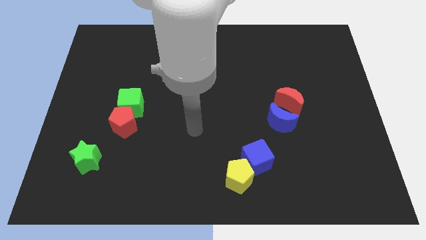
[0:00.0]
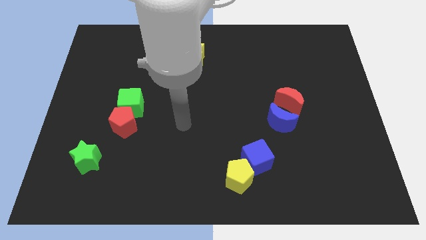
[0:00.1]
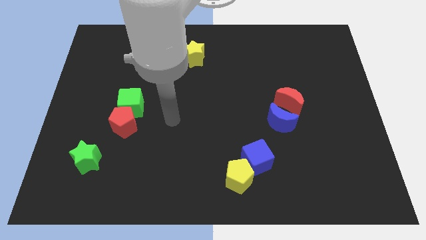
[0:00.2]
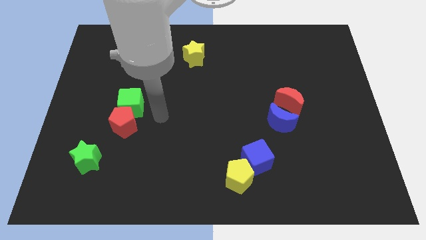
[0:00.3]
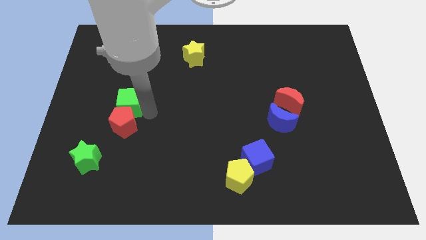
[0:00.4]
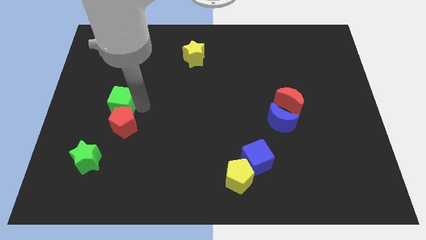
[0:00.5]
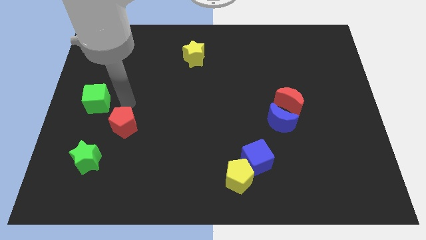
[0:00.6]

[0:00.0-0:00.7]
move the red pentagon away from the green cube

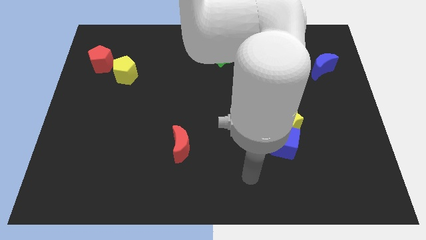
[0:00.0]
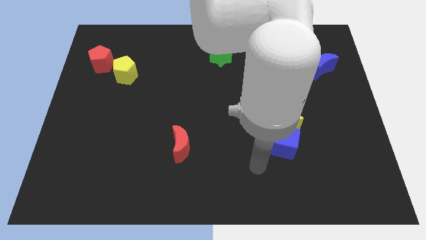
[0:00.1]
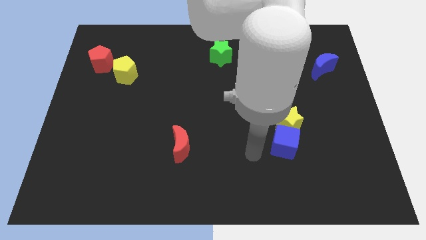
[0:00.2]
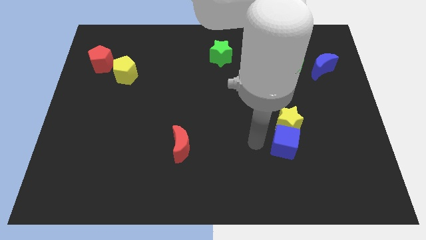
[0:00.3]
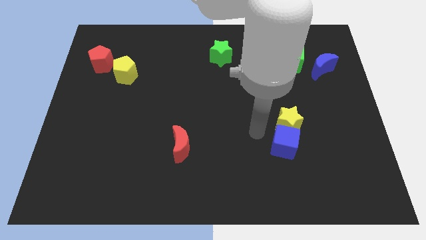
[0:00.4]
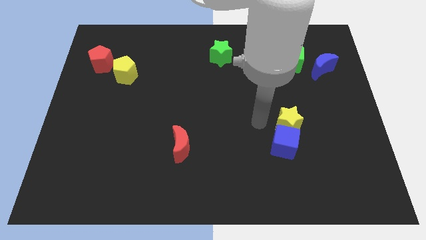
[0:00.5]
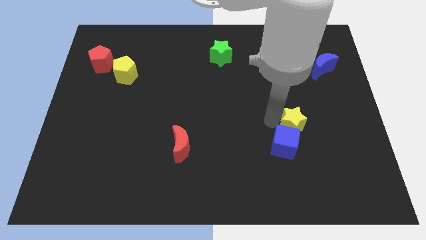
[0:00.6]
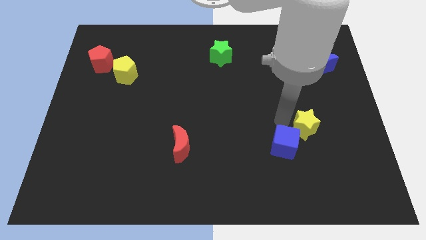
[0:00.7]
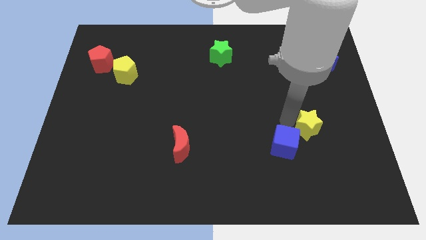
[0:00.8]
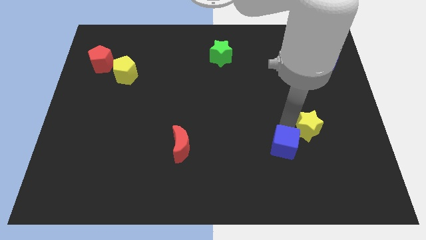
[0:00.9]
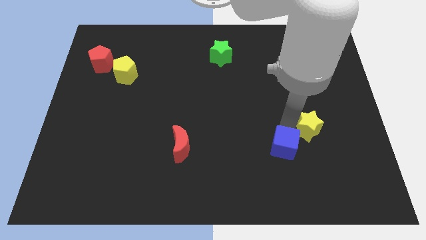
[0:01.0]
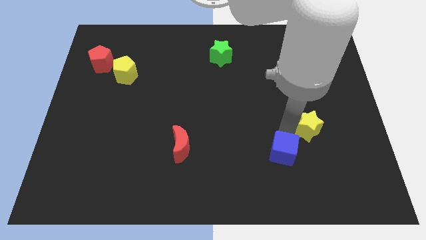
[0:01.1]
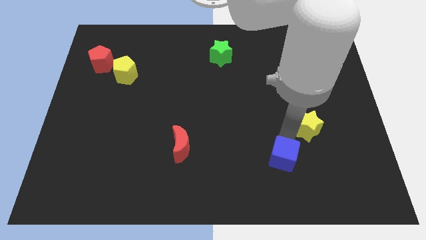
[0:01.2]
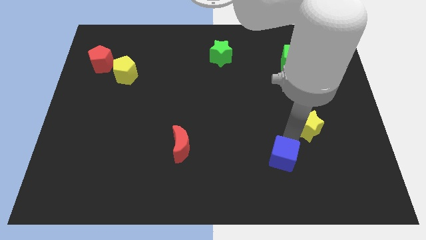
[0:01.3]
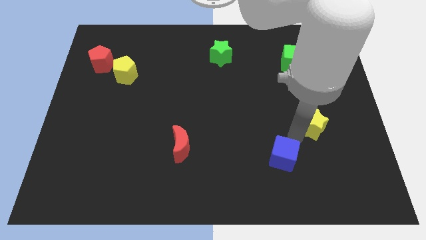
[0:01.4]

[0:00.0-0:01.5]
pull the blue cube apart from the yellow star

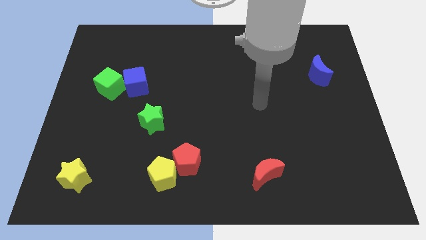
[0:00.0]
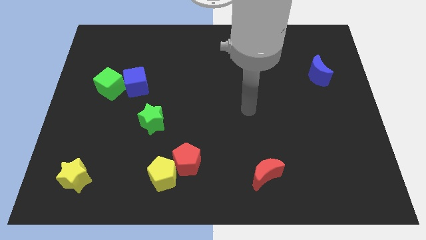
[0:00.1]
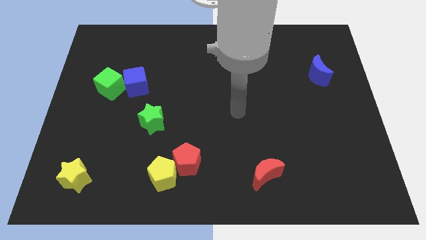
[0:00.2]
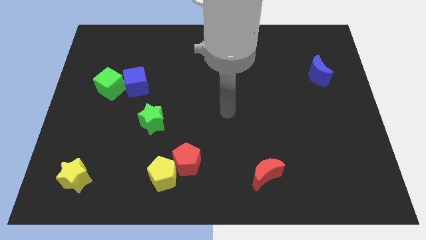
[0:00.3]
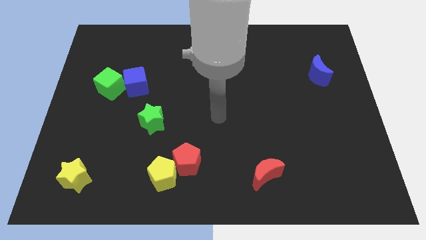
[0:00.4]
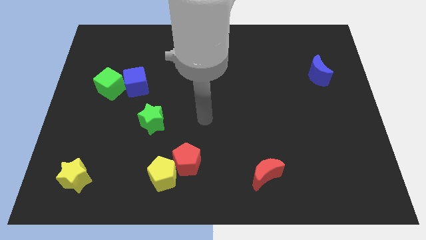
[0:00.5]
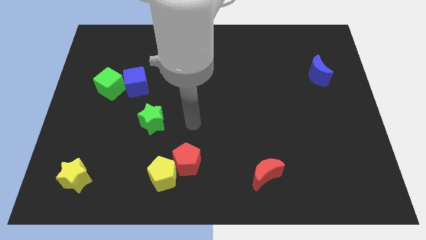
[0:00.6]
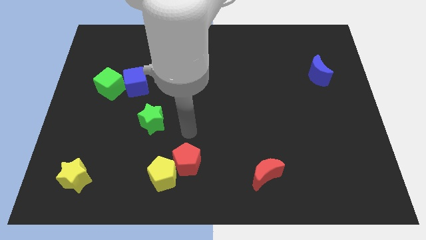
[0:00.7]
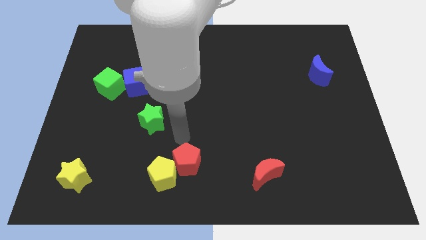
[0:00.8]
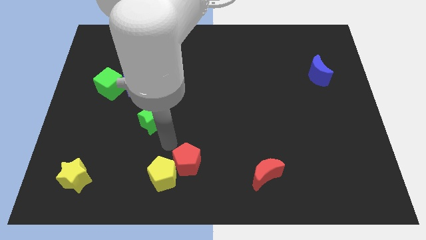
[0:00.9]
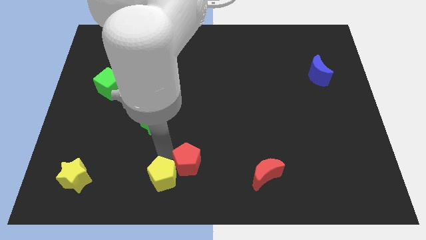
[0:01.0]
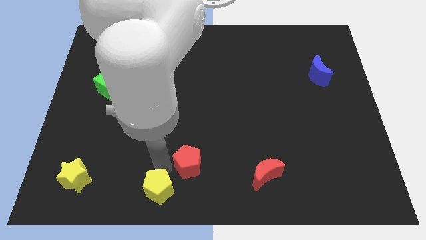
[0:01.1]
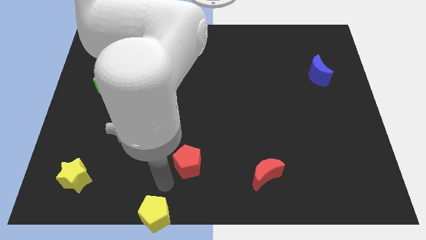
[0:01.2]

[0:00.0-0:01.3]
move the red pentagon away from the yellow pentagon

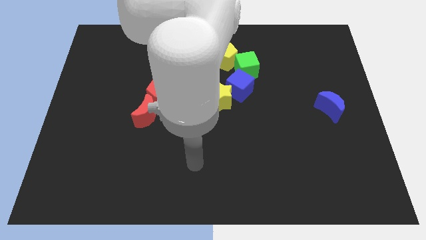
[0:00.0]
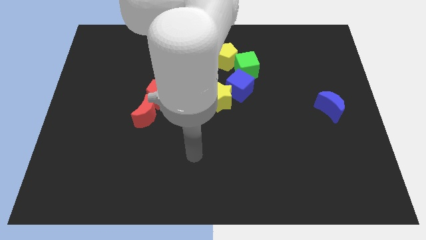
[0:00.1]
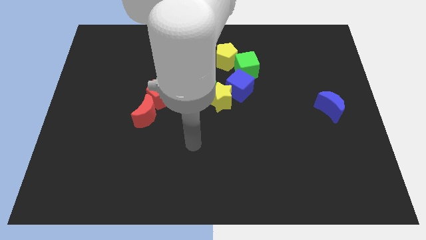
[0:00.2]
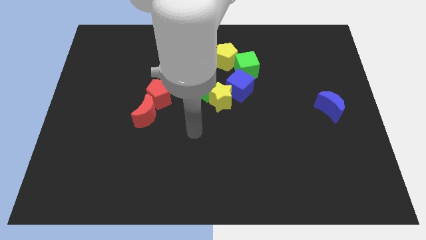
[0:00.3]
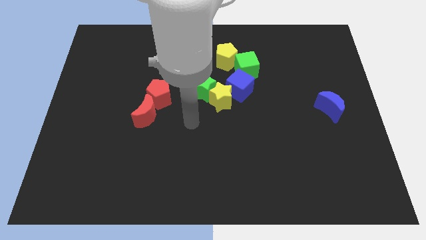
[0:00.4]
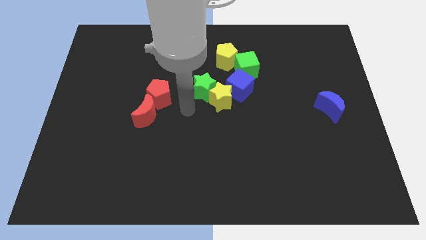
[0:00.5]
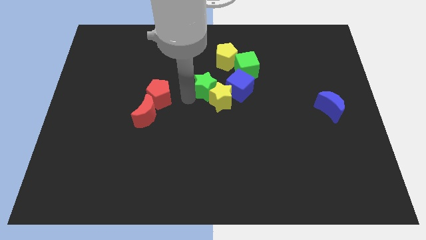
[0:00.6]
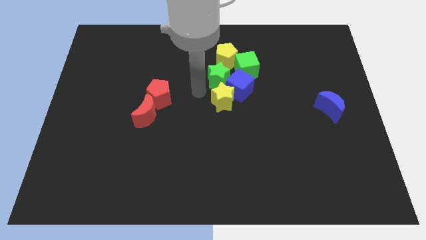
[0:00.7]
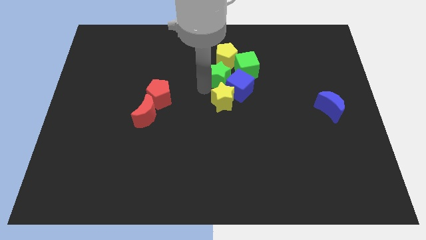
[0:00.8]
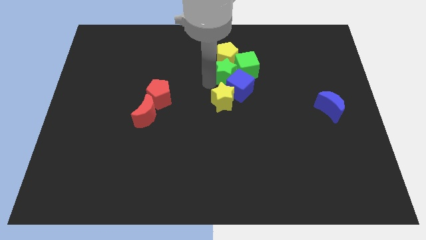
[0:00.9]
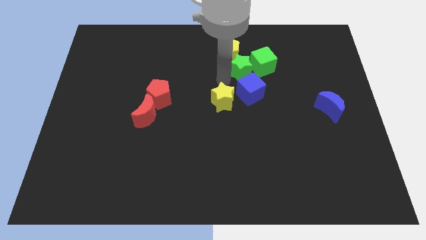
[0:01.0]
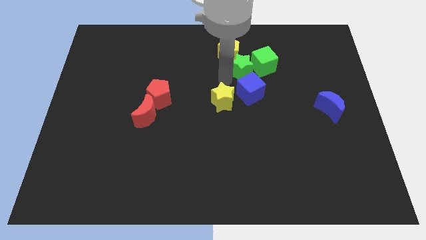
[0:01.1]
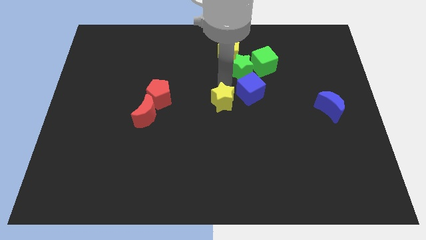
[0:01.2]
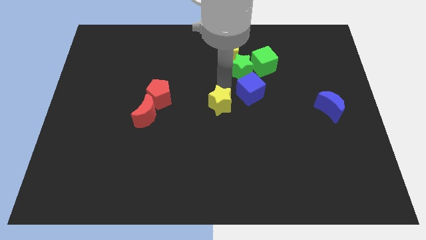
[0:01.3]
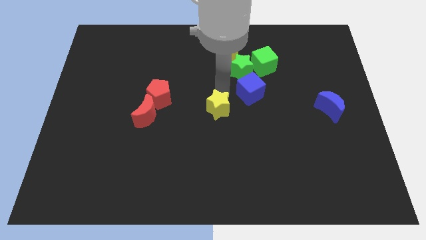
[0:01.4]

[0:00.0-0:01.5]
move the yellow star away from the green star and blue cube

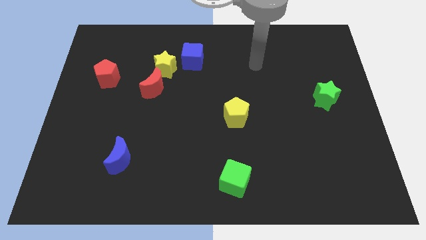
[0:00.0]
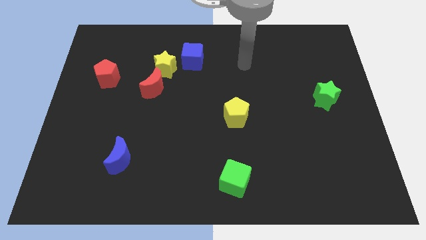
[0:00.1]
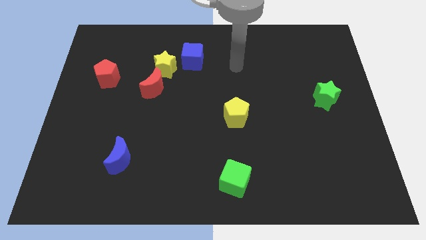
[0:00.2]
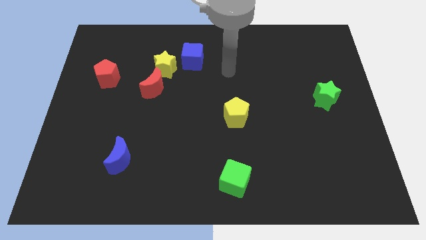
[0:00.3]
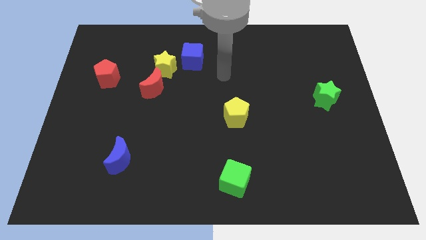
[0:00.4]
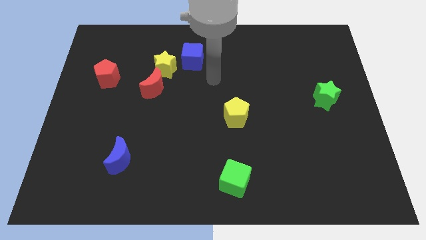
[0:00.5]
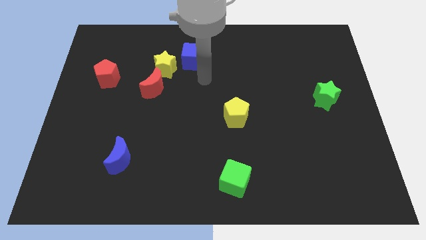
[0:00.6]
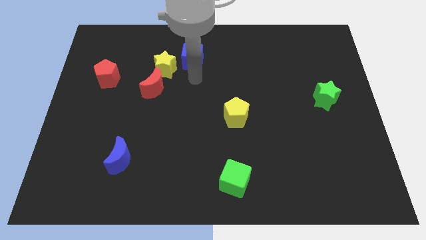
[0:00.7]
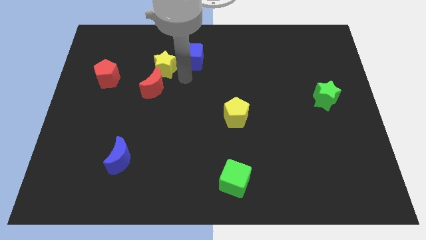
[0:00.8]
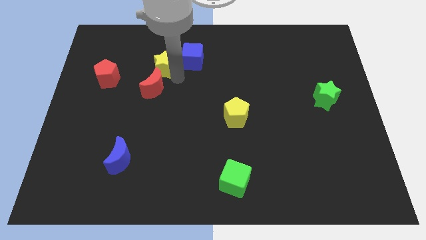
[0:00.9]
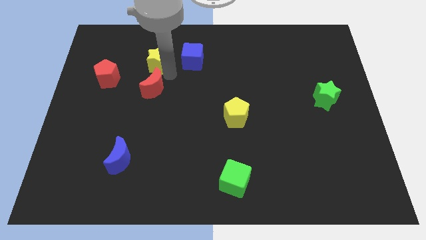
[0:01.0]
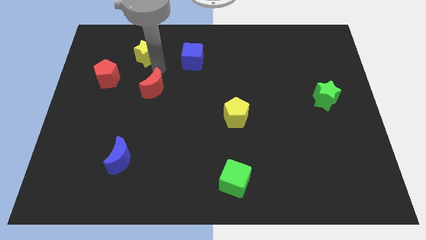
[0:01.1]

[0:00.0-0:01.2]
separate the red moon from the yellow star

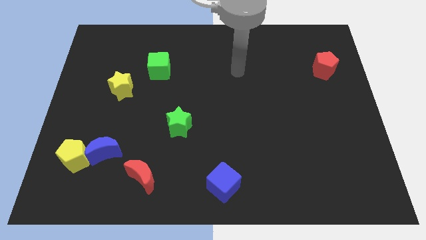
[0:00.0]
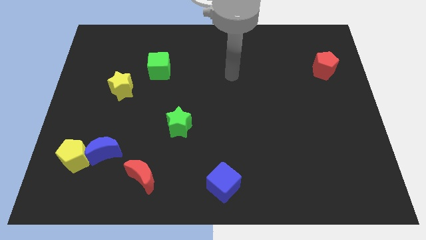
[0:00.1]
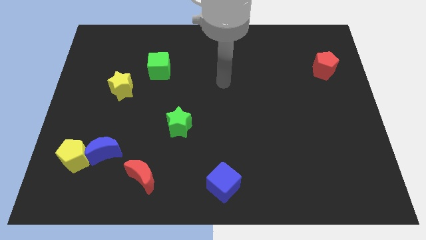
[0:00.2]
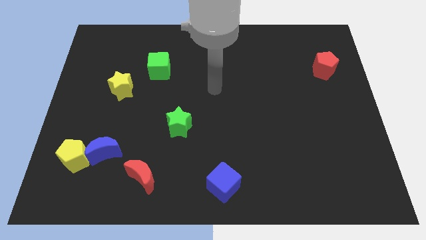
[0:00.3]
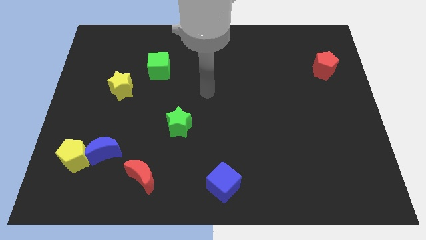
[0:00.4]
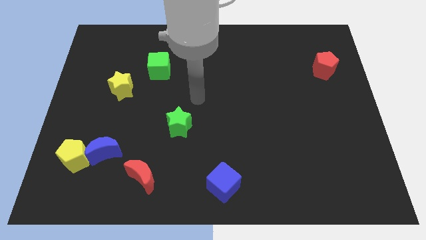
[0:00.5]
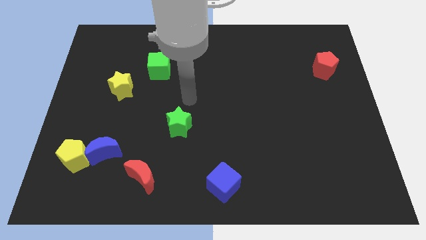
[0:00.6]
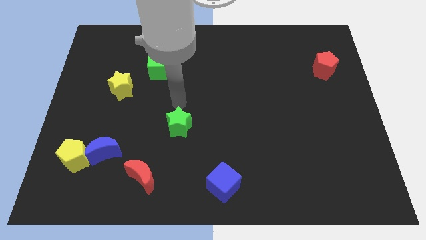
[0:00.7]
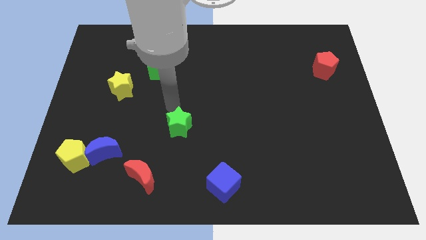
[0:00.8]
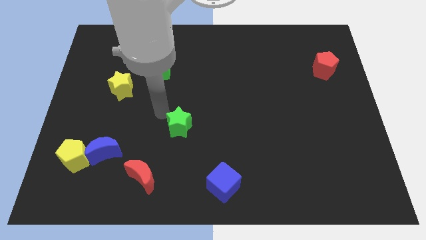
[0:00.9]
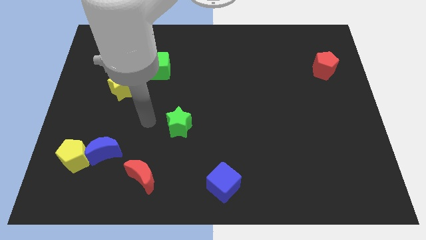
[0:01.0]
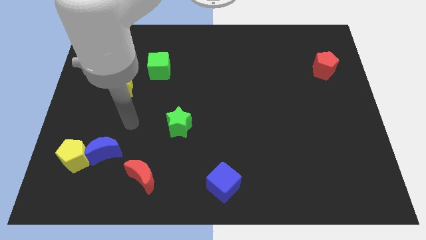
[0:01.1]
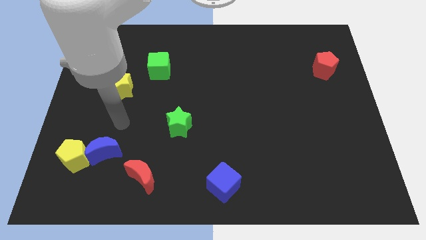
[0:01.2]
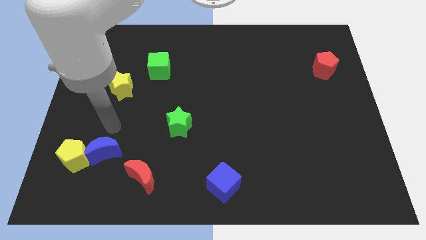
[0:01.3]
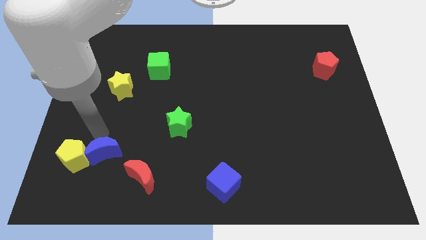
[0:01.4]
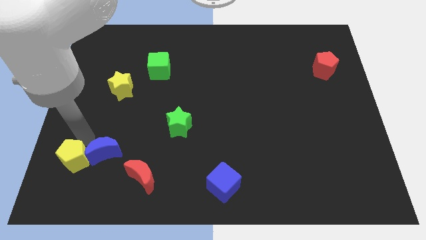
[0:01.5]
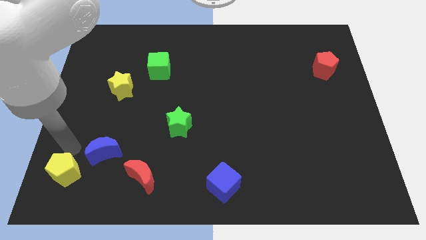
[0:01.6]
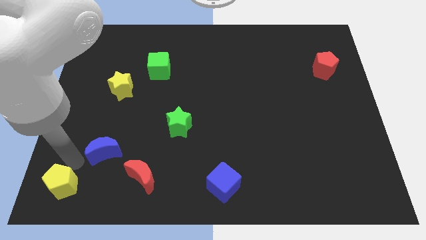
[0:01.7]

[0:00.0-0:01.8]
separate the blue moon from the yellow pentagon

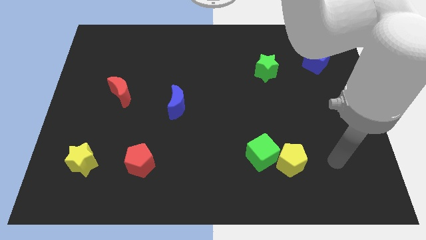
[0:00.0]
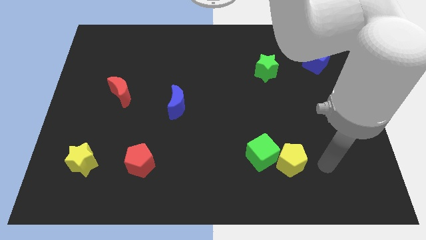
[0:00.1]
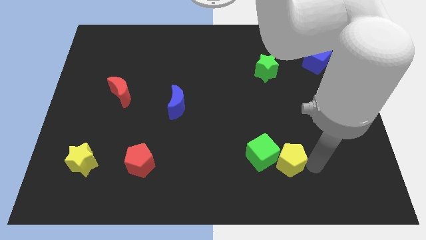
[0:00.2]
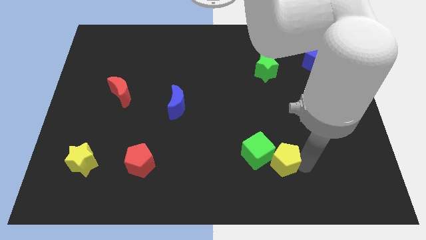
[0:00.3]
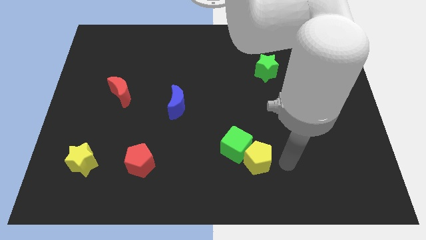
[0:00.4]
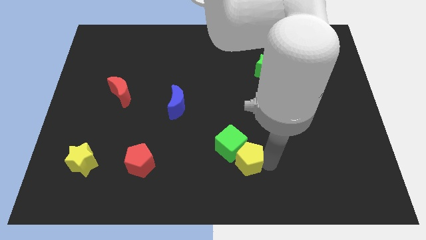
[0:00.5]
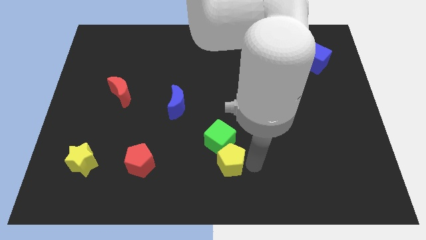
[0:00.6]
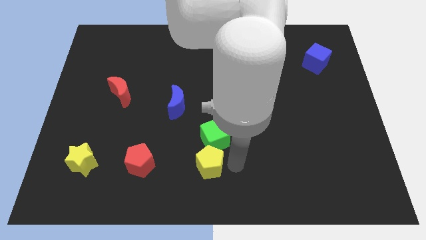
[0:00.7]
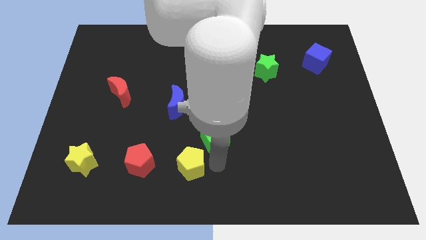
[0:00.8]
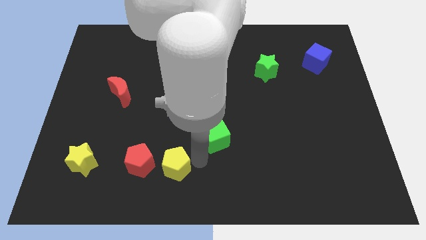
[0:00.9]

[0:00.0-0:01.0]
separate the green cube from the yellow pentagon

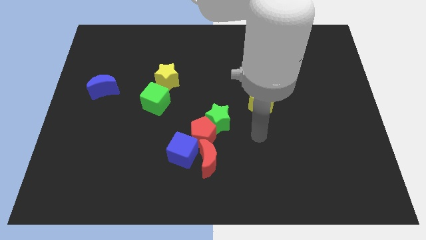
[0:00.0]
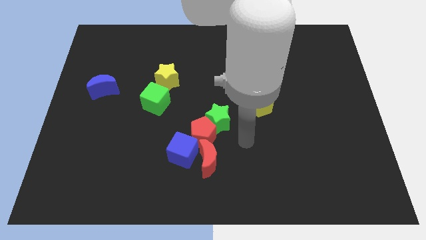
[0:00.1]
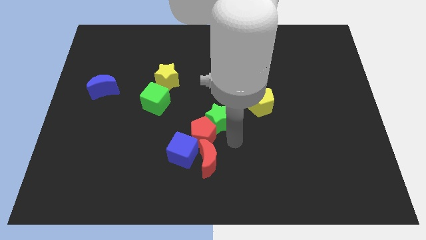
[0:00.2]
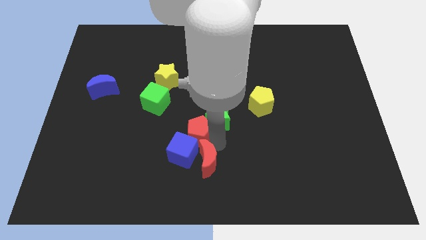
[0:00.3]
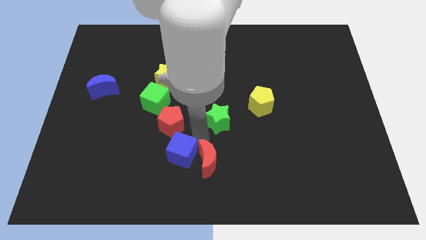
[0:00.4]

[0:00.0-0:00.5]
pull the green star apart from the red pentagon
